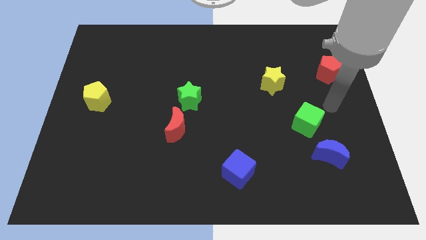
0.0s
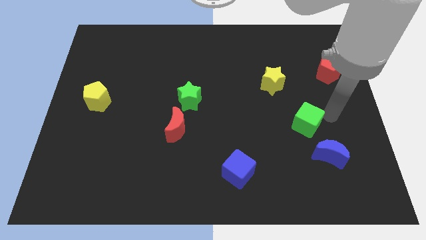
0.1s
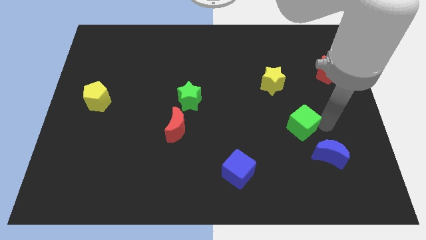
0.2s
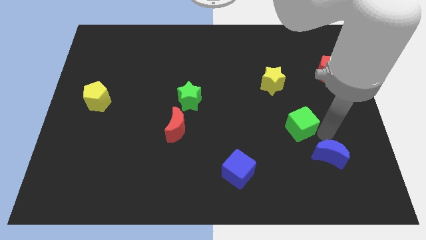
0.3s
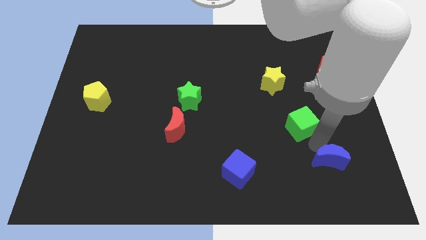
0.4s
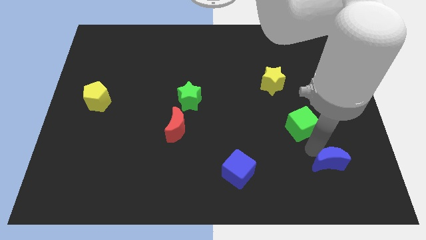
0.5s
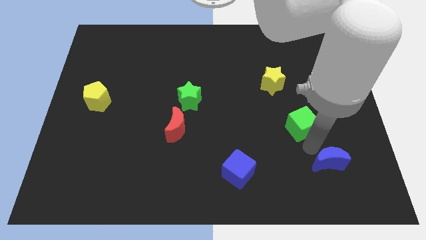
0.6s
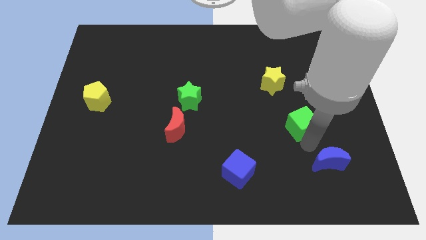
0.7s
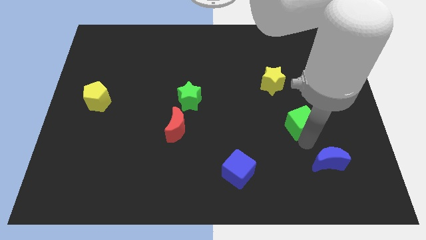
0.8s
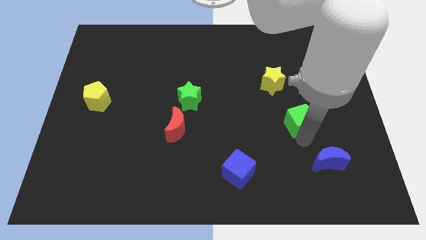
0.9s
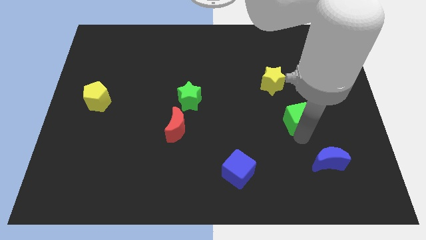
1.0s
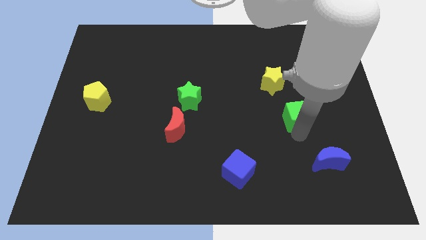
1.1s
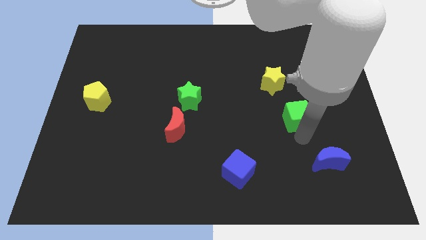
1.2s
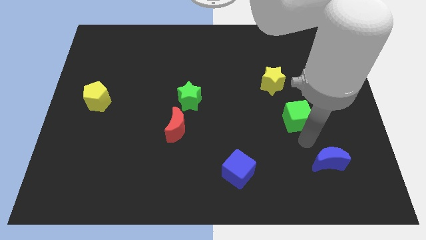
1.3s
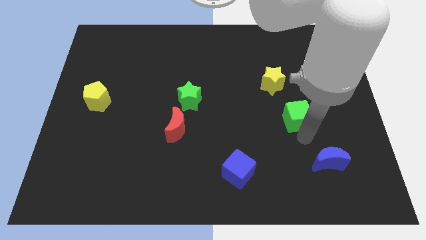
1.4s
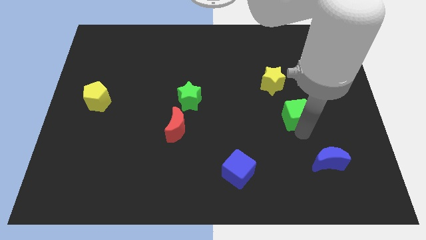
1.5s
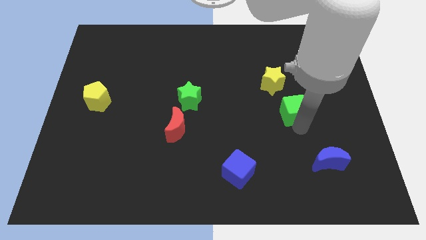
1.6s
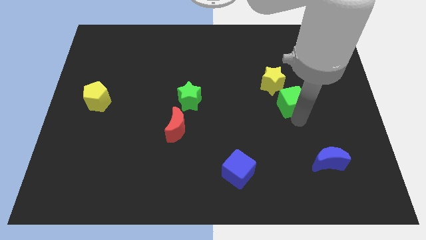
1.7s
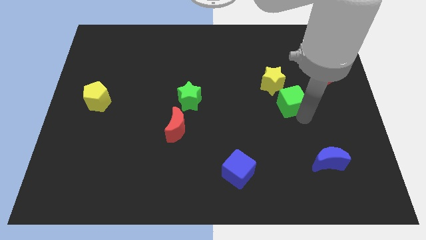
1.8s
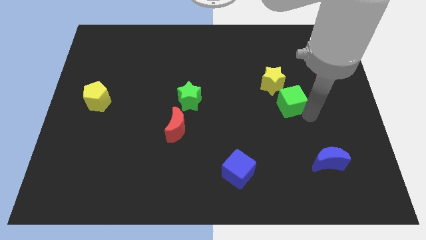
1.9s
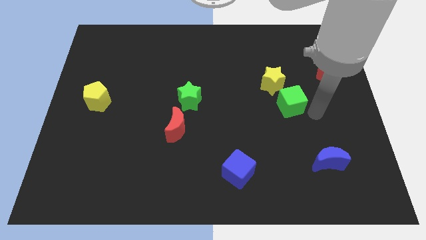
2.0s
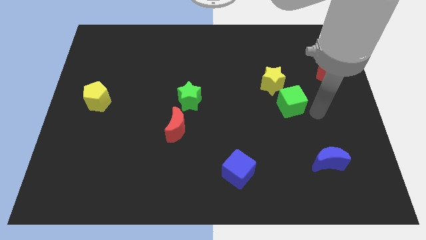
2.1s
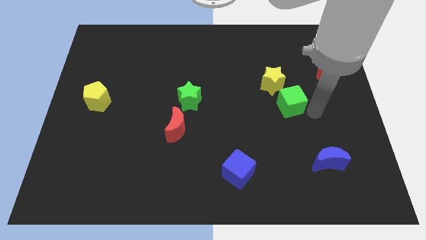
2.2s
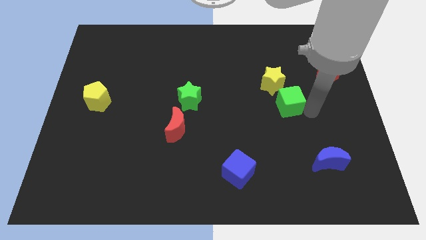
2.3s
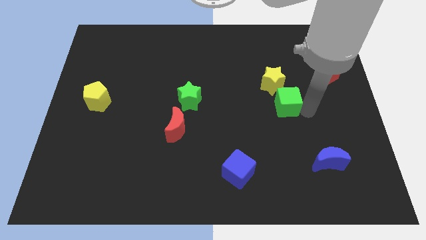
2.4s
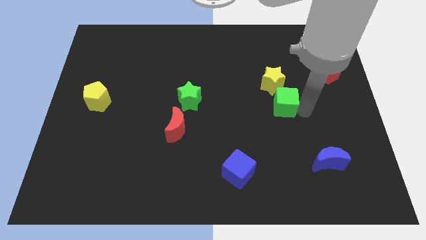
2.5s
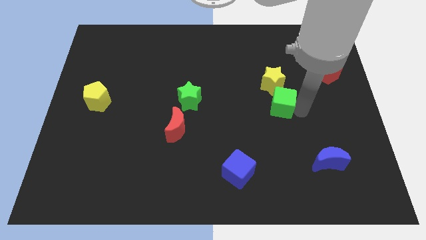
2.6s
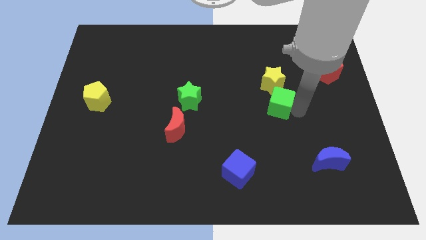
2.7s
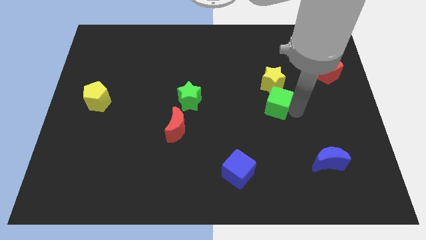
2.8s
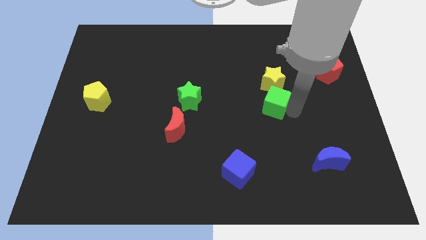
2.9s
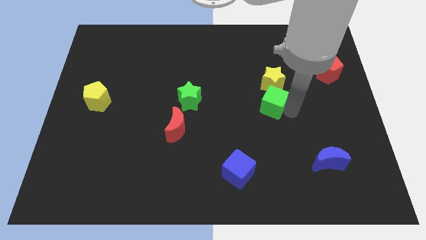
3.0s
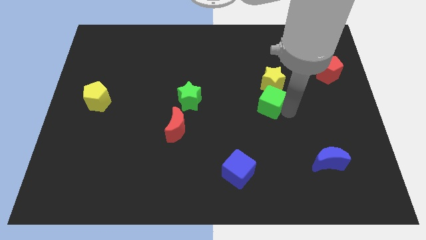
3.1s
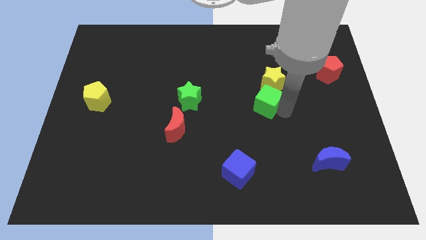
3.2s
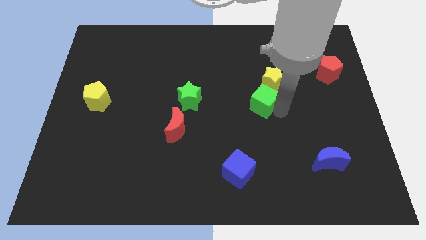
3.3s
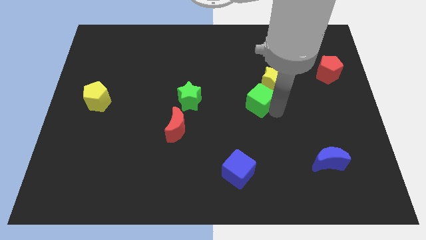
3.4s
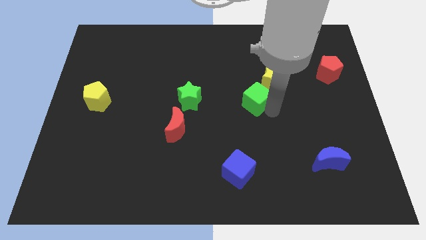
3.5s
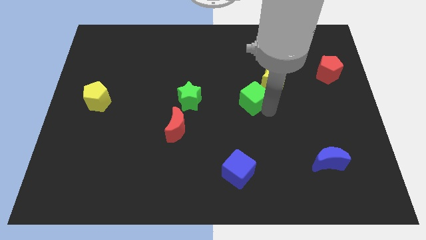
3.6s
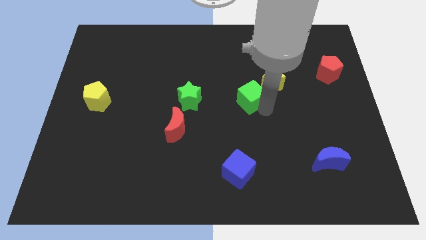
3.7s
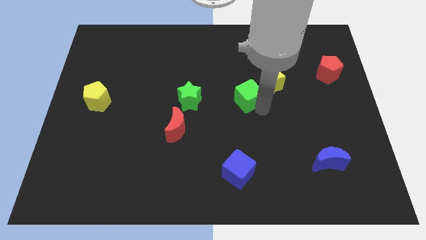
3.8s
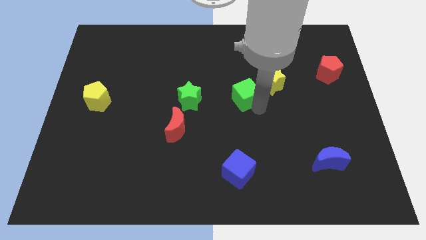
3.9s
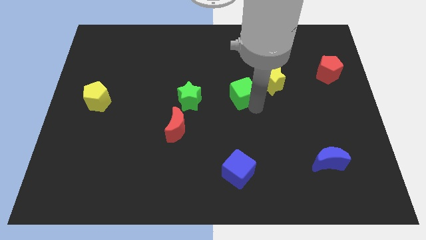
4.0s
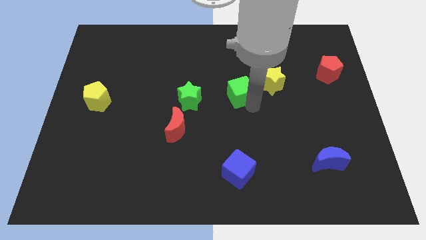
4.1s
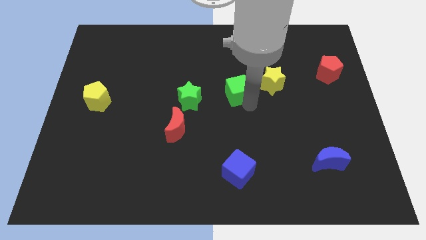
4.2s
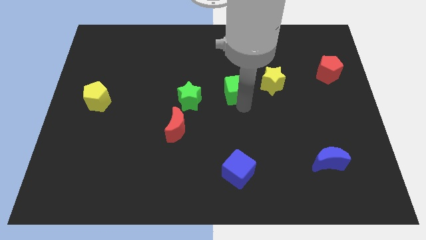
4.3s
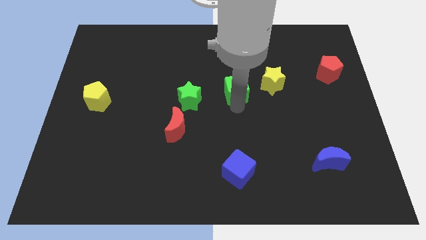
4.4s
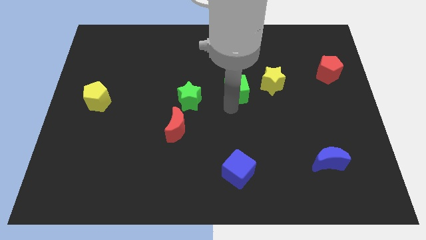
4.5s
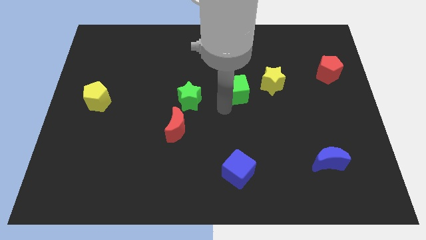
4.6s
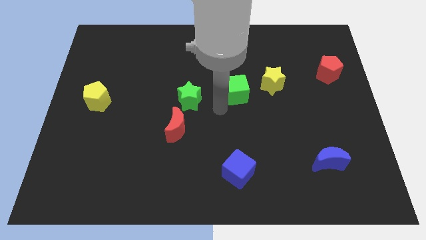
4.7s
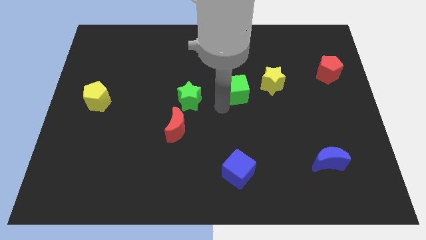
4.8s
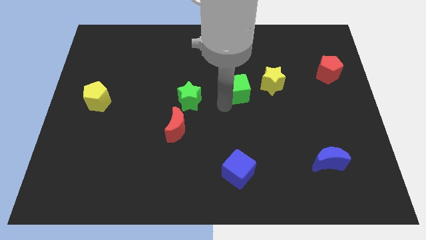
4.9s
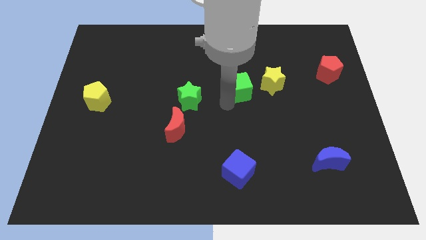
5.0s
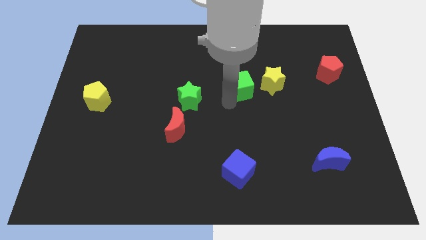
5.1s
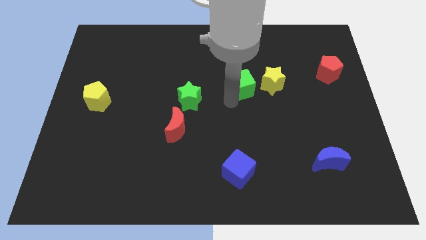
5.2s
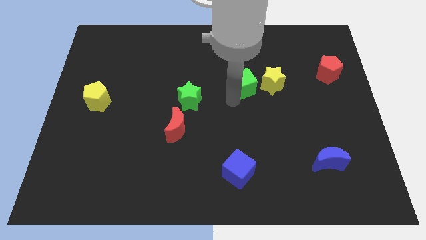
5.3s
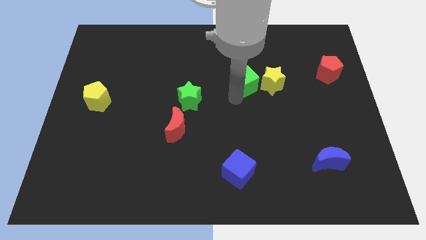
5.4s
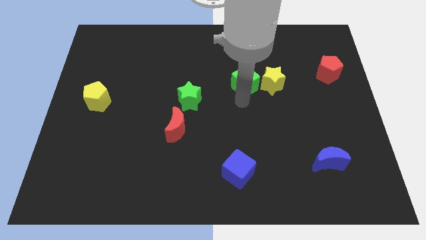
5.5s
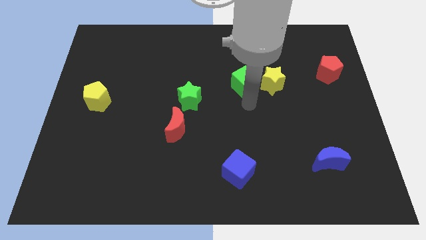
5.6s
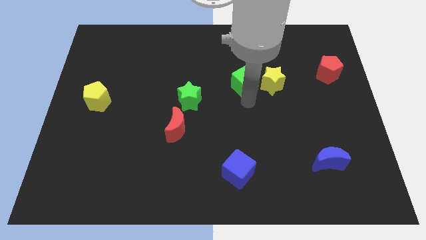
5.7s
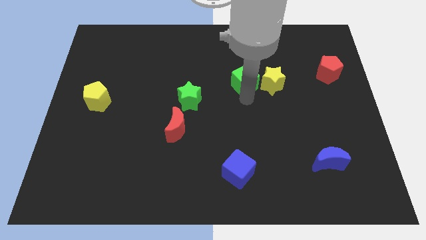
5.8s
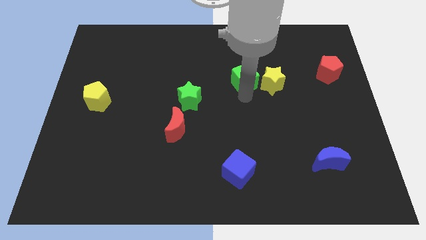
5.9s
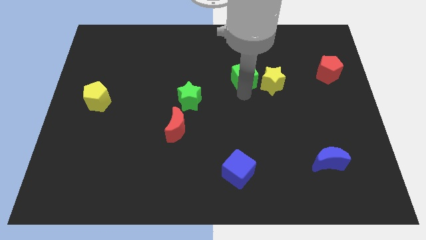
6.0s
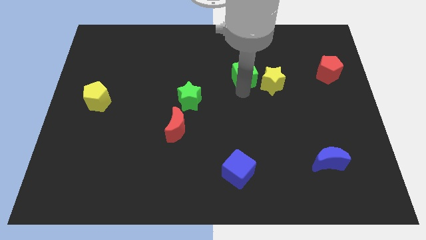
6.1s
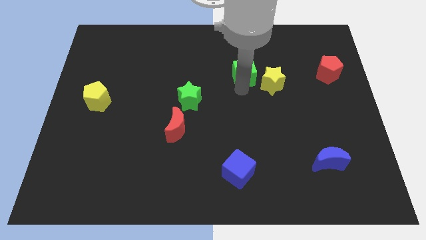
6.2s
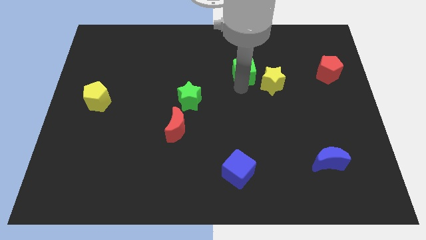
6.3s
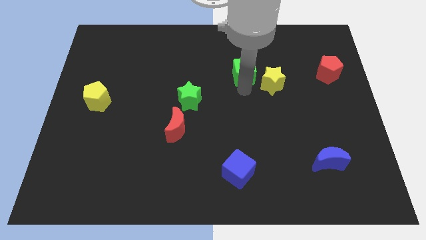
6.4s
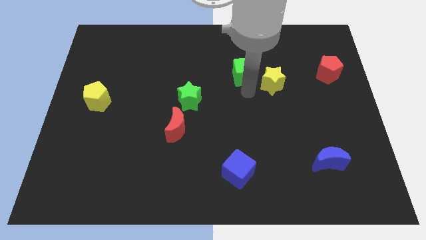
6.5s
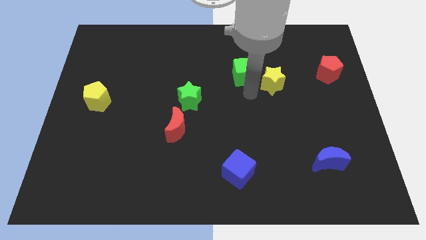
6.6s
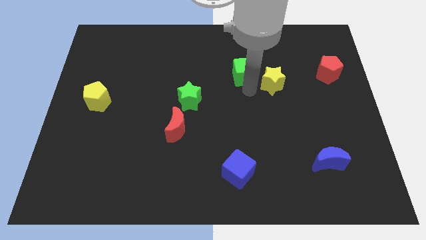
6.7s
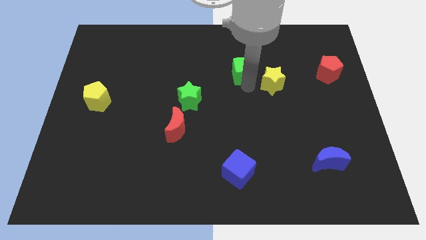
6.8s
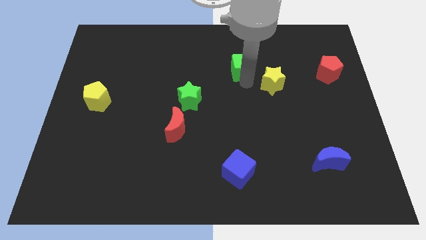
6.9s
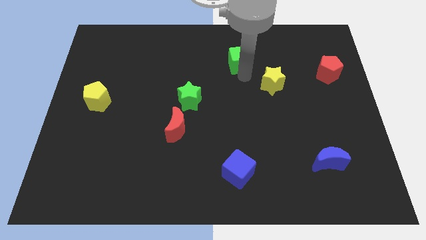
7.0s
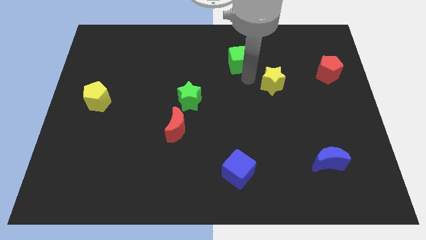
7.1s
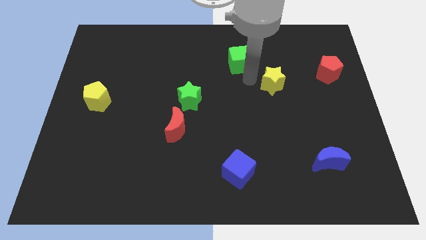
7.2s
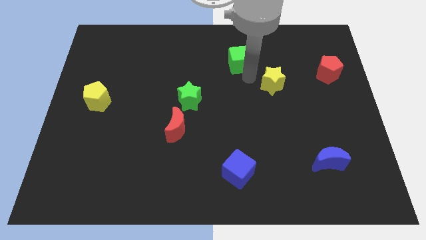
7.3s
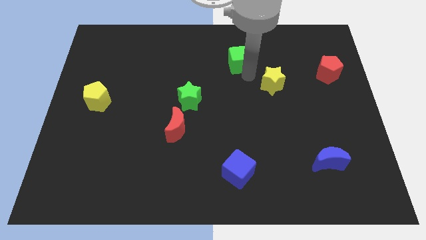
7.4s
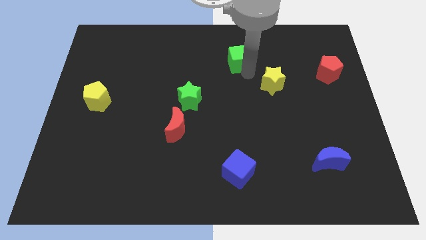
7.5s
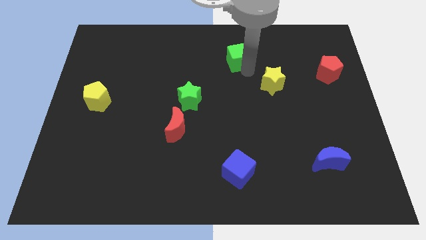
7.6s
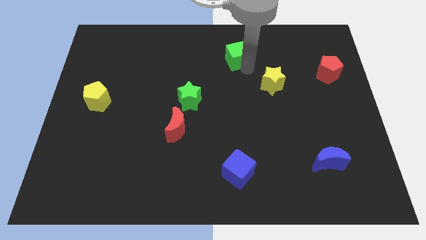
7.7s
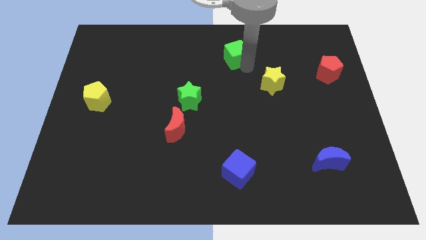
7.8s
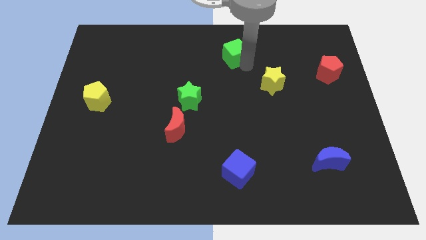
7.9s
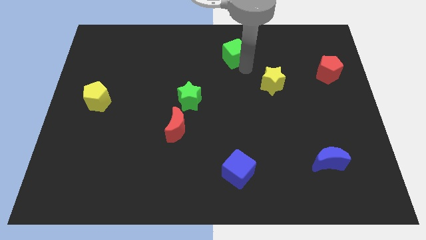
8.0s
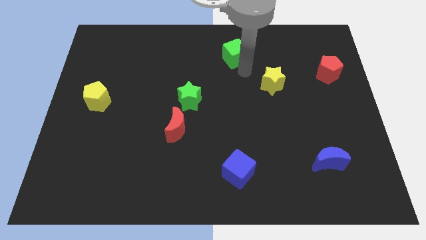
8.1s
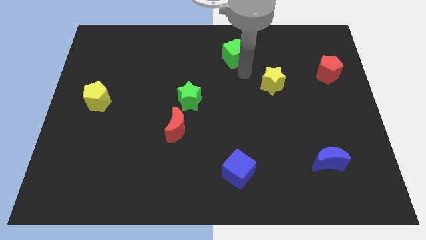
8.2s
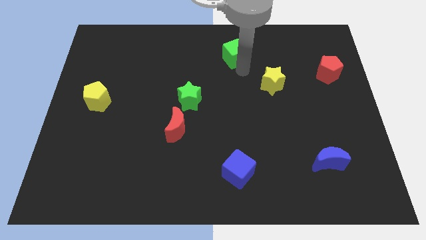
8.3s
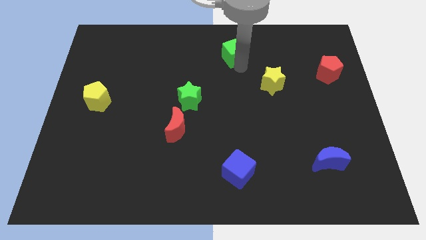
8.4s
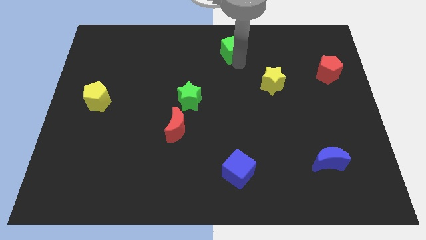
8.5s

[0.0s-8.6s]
slide the green cube to the top side
